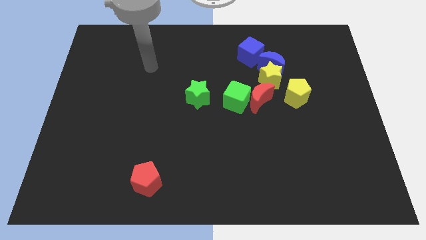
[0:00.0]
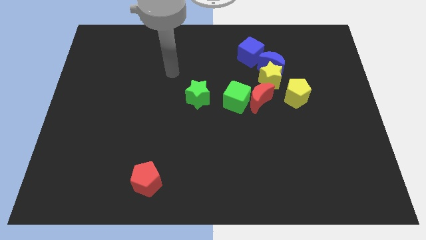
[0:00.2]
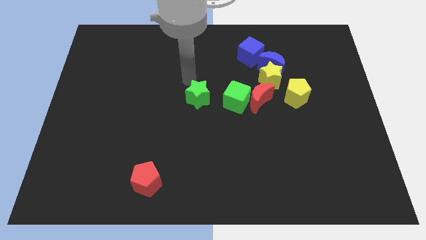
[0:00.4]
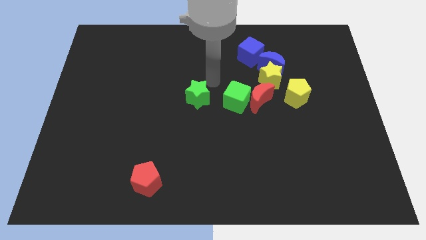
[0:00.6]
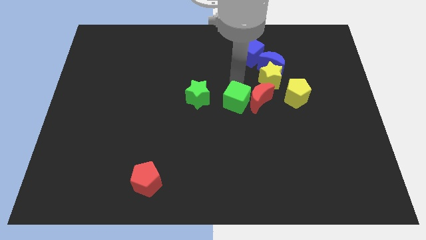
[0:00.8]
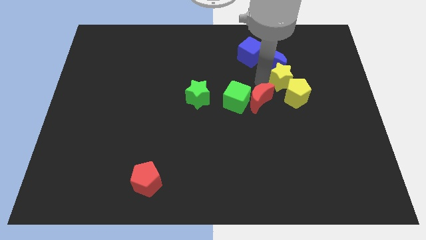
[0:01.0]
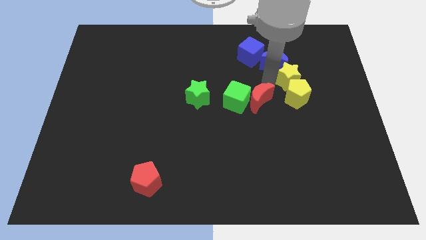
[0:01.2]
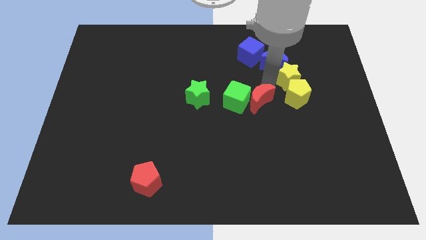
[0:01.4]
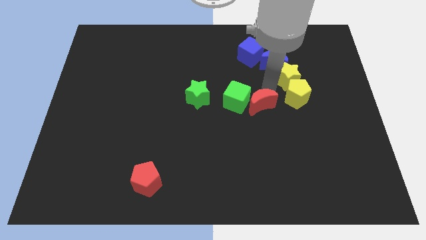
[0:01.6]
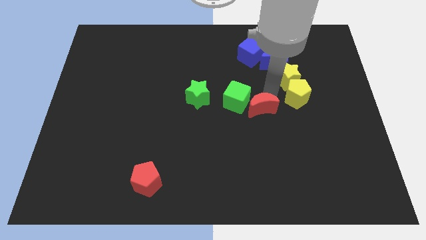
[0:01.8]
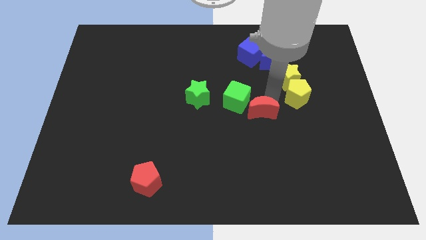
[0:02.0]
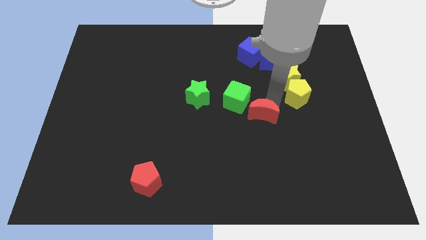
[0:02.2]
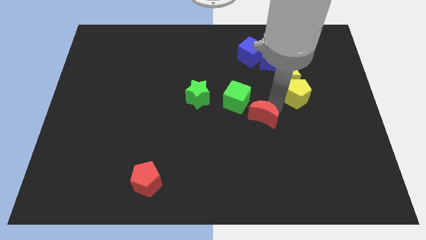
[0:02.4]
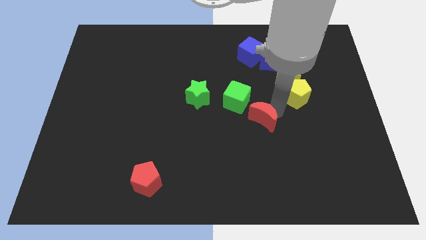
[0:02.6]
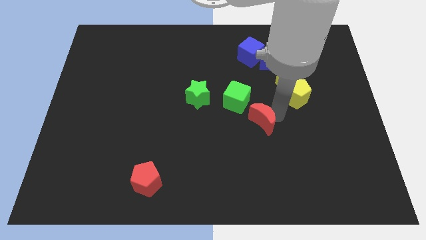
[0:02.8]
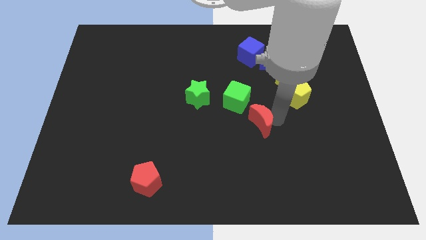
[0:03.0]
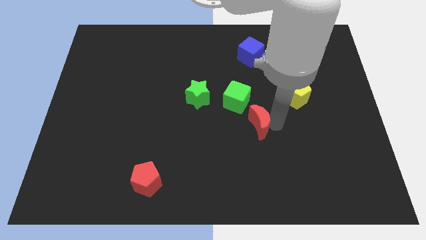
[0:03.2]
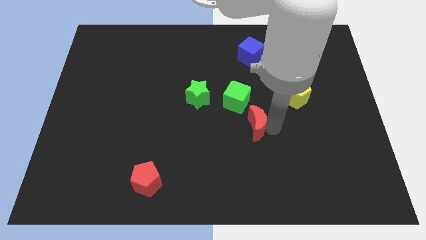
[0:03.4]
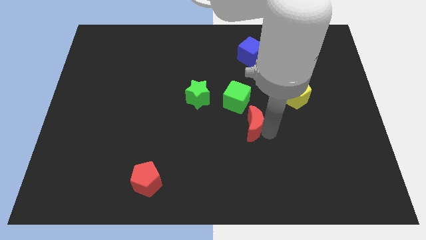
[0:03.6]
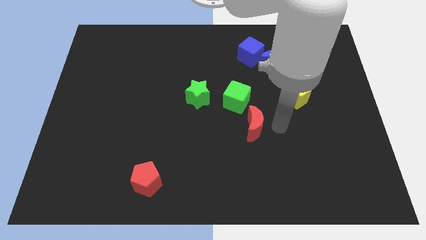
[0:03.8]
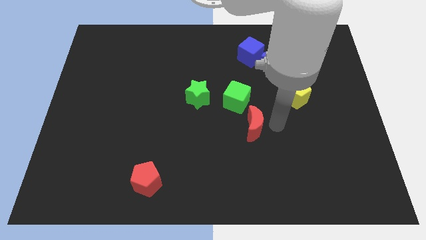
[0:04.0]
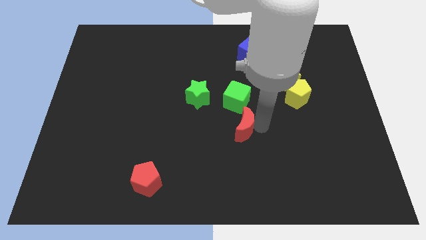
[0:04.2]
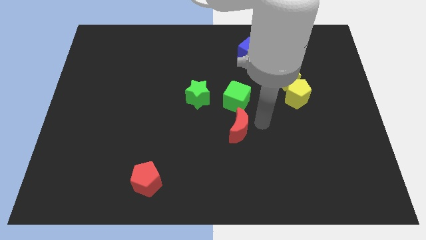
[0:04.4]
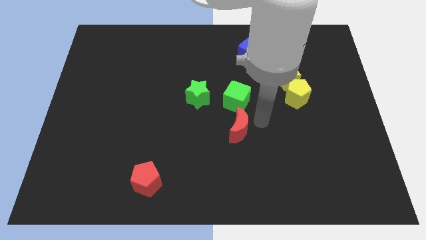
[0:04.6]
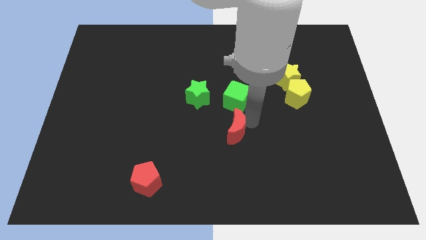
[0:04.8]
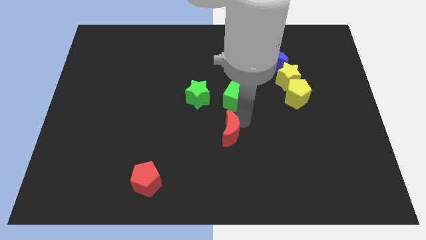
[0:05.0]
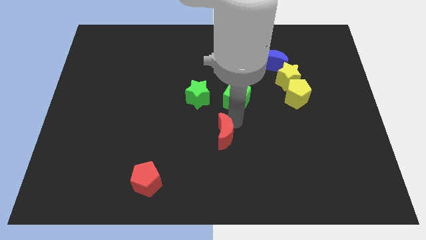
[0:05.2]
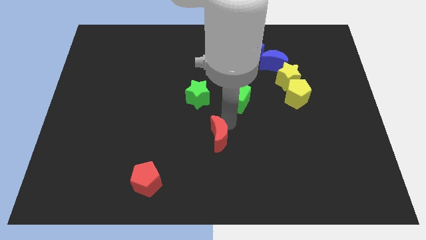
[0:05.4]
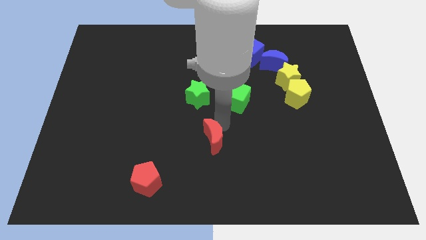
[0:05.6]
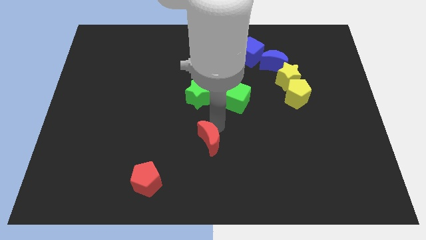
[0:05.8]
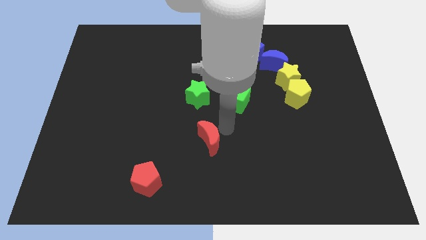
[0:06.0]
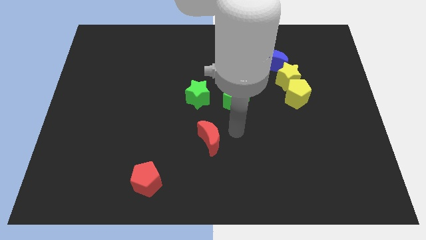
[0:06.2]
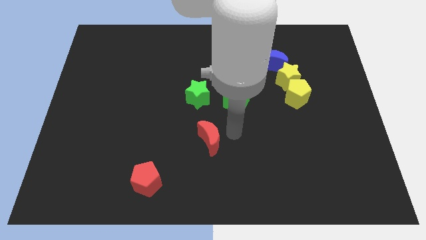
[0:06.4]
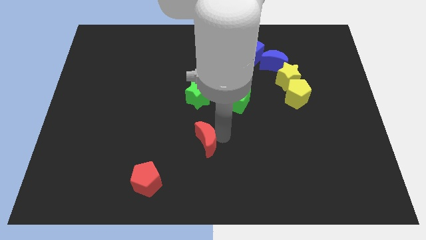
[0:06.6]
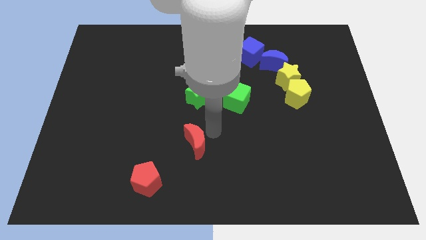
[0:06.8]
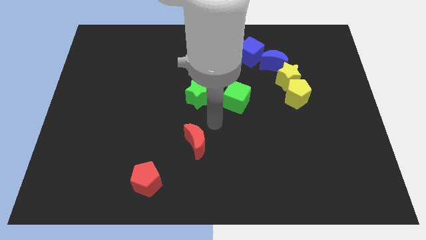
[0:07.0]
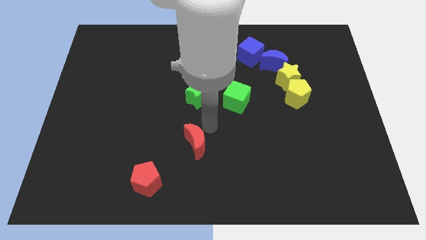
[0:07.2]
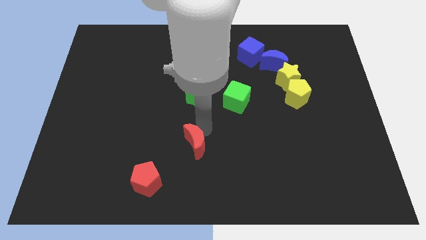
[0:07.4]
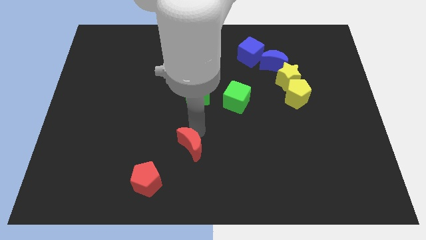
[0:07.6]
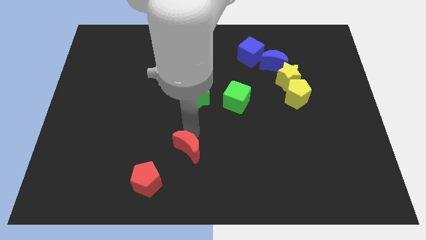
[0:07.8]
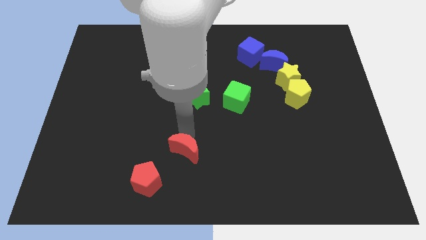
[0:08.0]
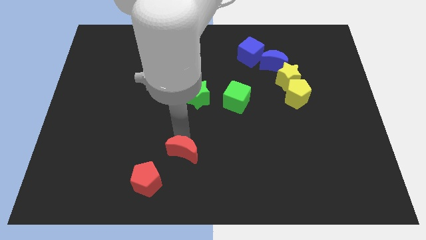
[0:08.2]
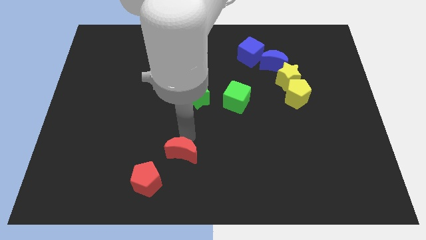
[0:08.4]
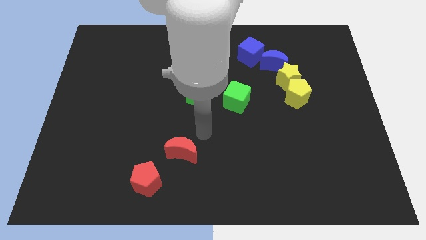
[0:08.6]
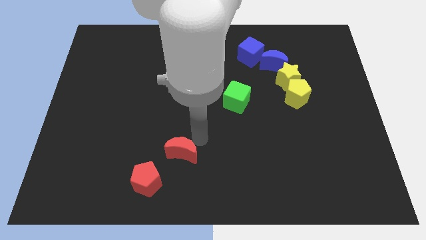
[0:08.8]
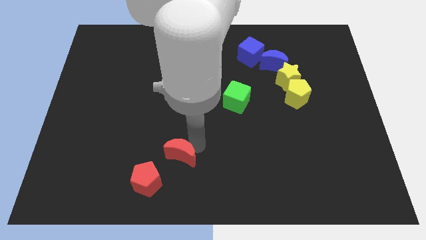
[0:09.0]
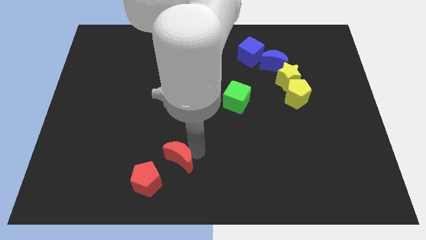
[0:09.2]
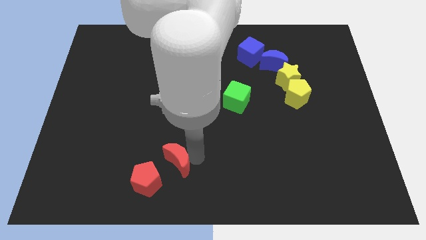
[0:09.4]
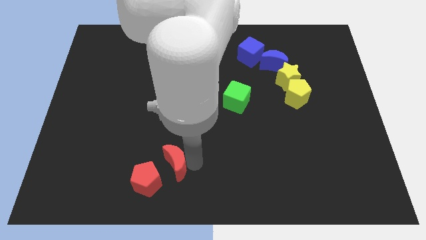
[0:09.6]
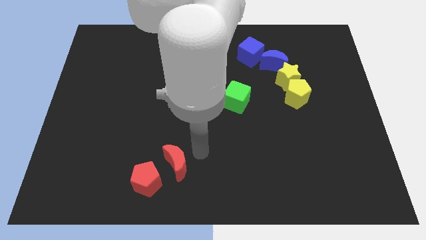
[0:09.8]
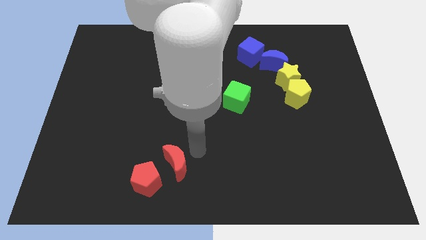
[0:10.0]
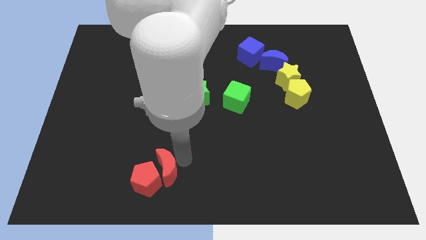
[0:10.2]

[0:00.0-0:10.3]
move the red moon towards the red pentagon

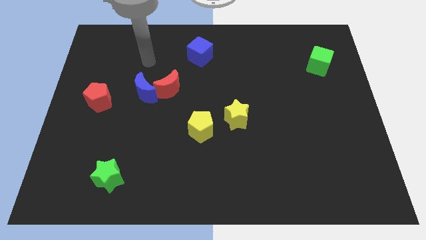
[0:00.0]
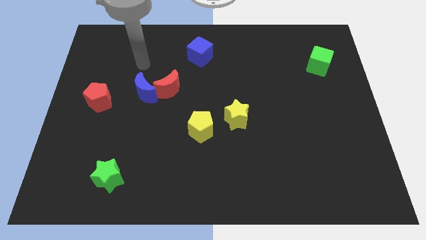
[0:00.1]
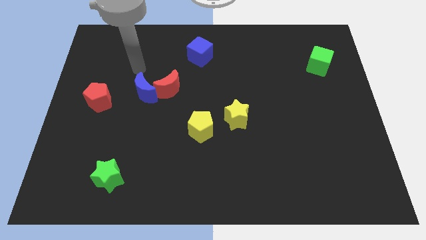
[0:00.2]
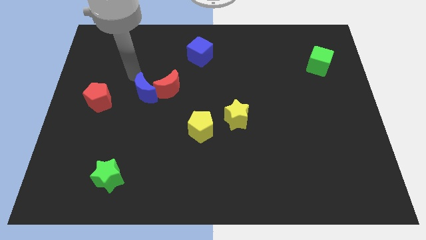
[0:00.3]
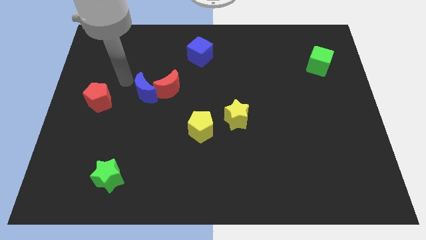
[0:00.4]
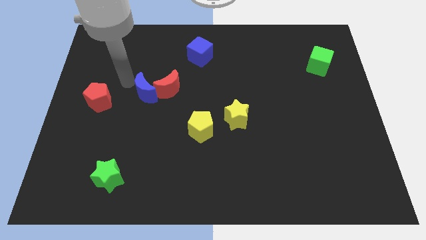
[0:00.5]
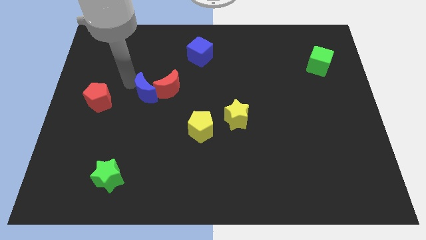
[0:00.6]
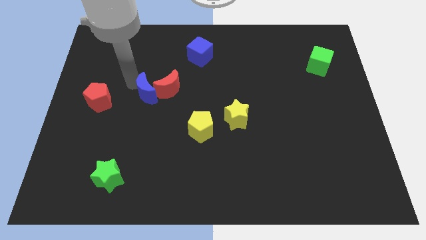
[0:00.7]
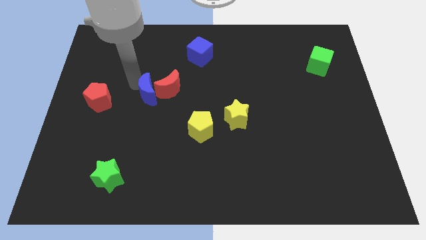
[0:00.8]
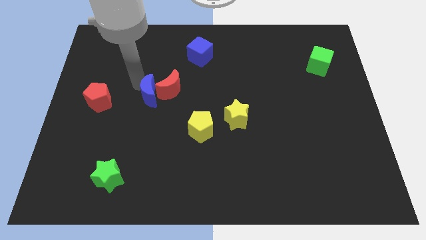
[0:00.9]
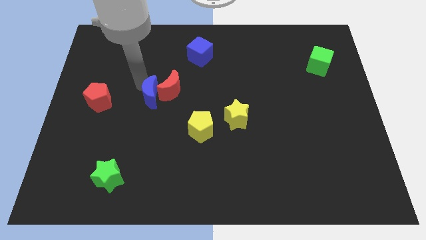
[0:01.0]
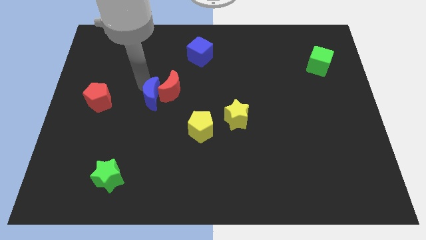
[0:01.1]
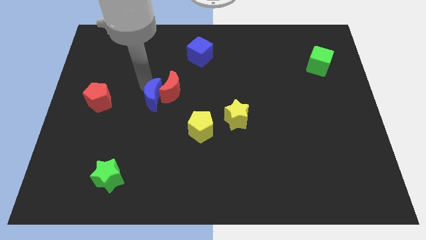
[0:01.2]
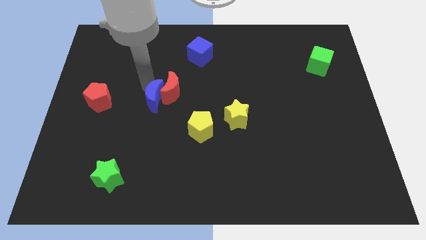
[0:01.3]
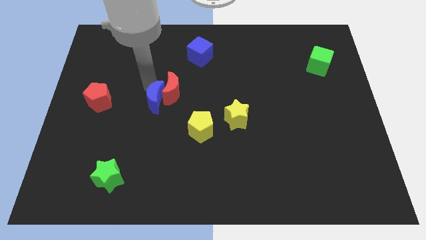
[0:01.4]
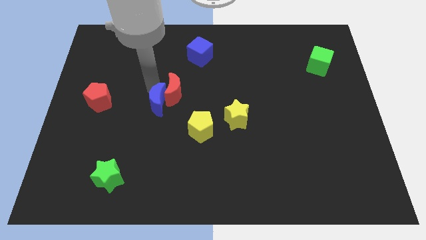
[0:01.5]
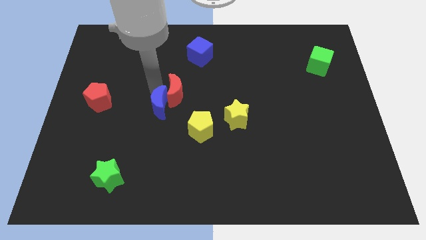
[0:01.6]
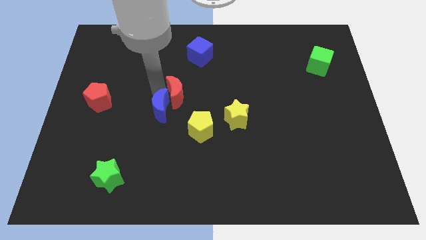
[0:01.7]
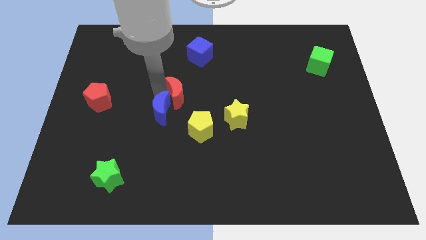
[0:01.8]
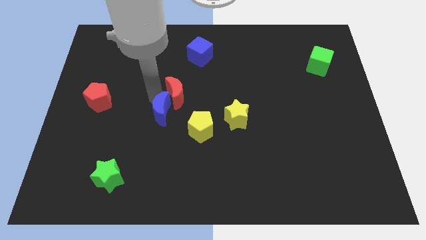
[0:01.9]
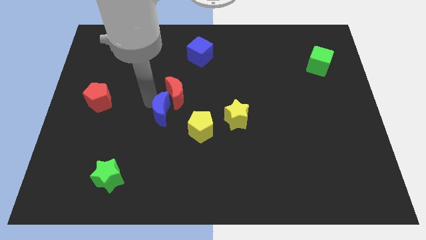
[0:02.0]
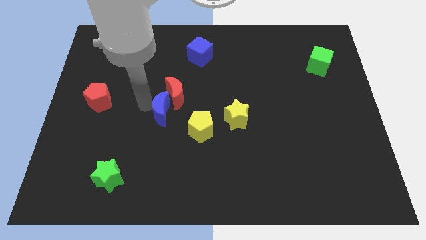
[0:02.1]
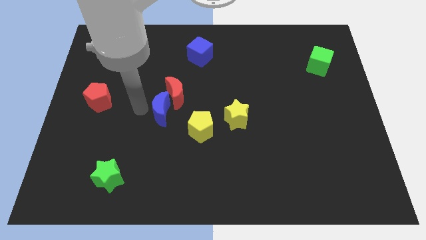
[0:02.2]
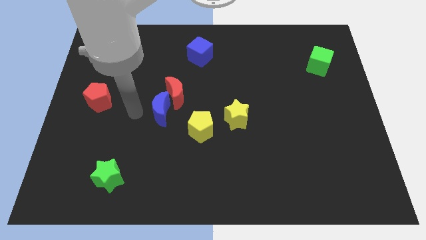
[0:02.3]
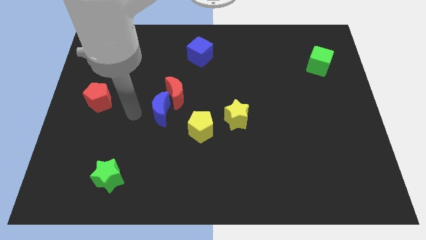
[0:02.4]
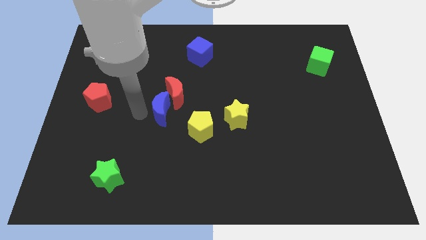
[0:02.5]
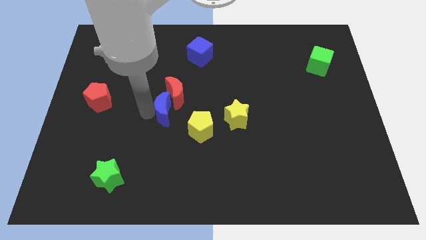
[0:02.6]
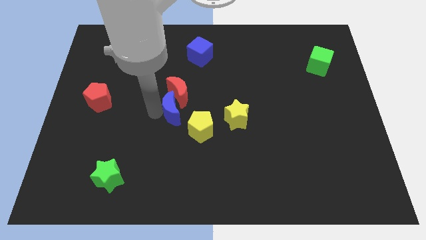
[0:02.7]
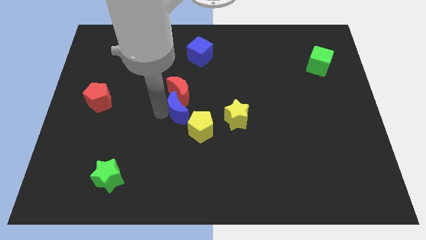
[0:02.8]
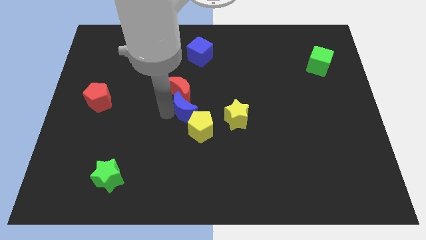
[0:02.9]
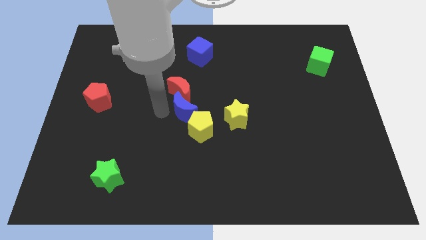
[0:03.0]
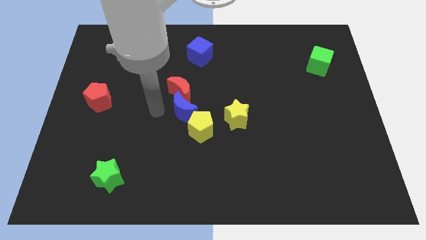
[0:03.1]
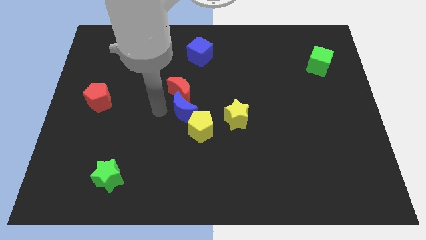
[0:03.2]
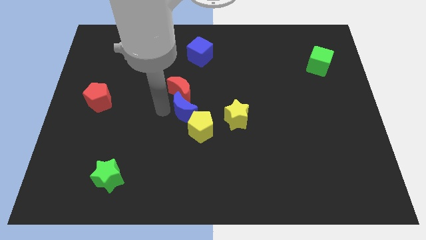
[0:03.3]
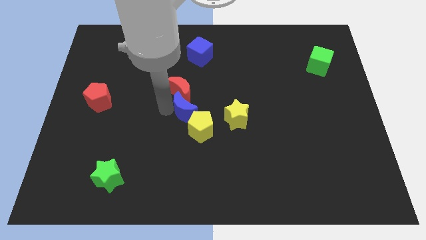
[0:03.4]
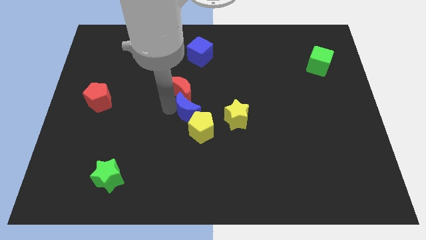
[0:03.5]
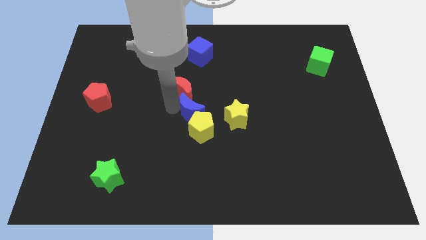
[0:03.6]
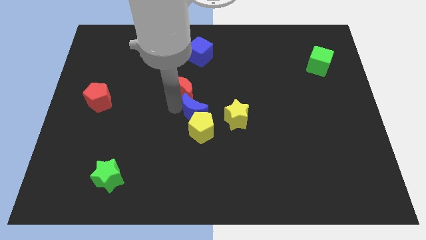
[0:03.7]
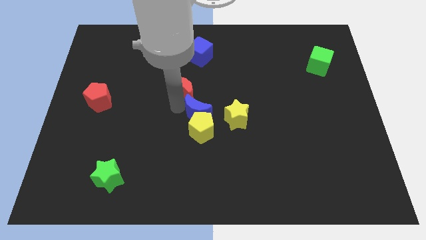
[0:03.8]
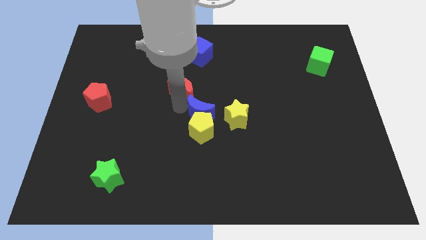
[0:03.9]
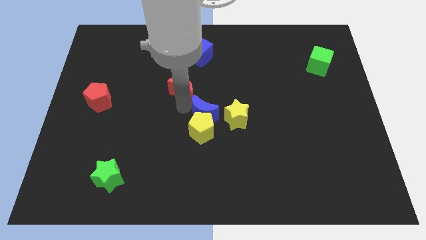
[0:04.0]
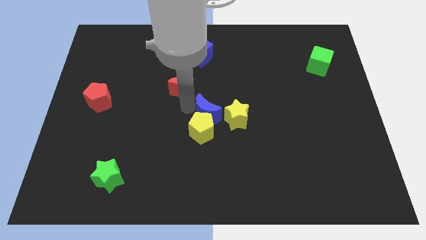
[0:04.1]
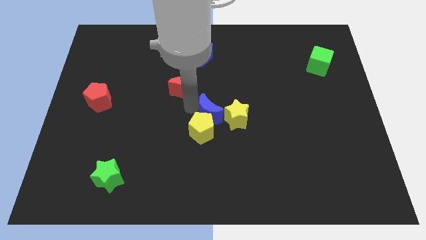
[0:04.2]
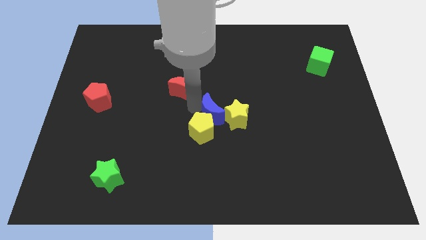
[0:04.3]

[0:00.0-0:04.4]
push the blue moon to the yellow star
